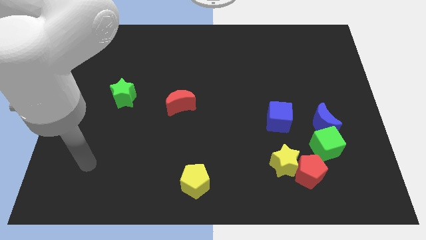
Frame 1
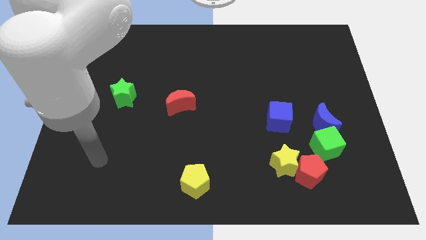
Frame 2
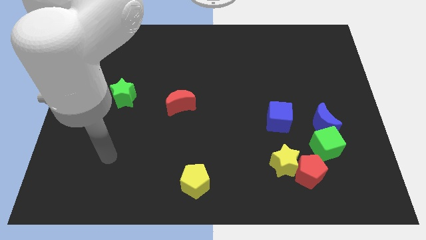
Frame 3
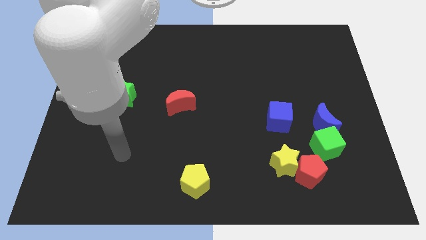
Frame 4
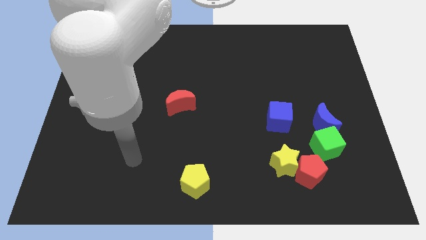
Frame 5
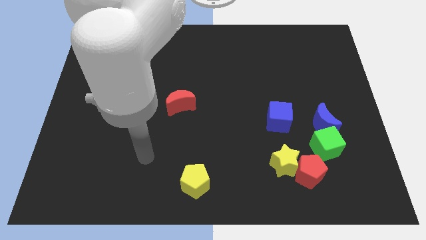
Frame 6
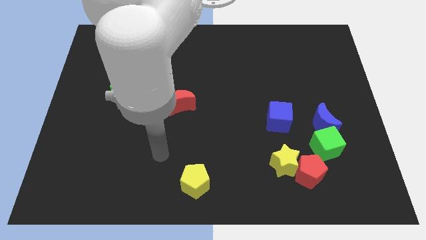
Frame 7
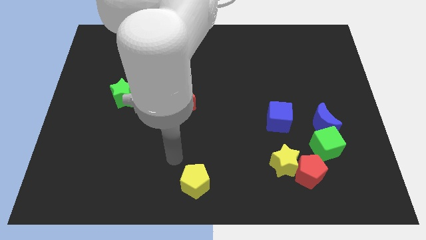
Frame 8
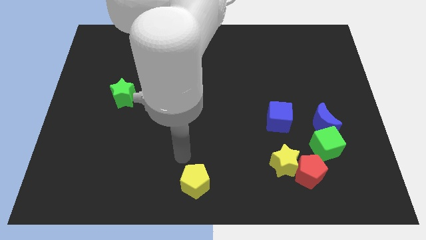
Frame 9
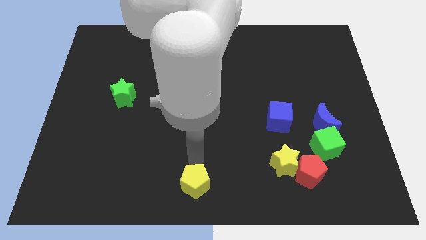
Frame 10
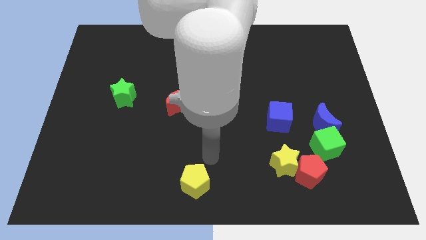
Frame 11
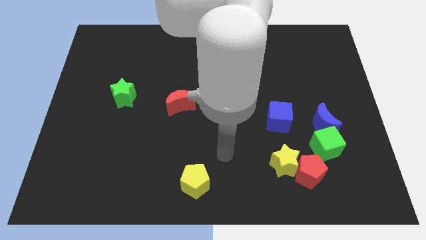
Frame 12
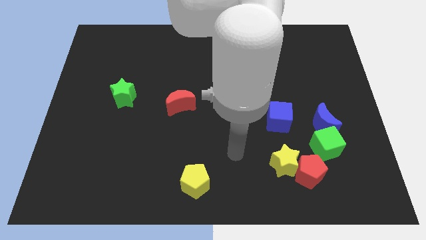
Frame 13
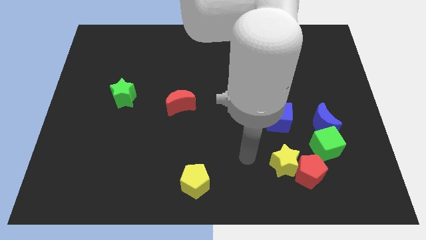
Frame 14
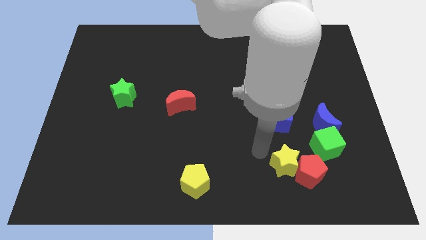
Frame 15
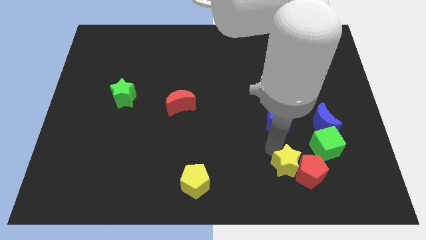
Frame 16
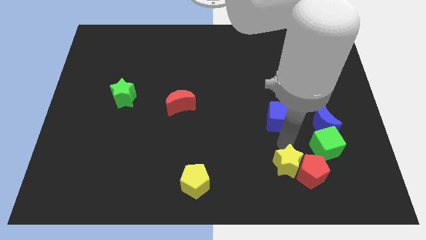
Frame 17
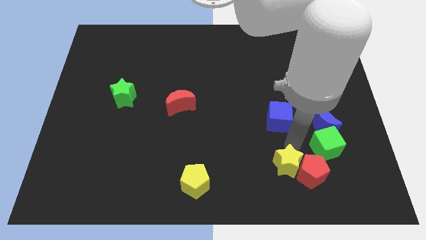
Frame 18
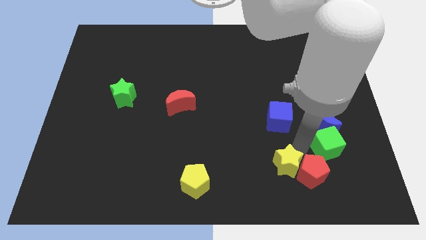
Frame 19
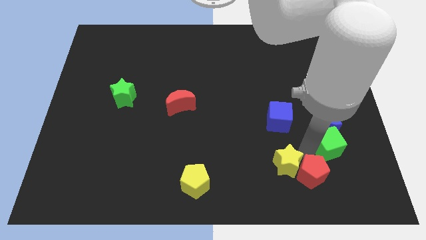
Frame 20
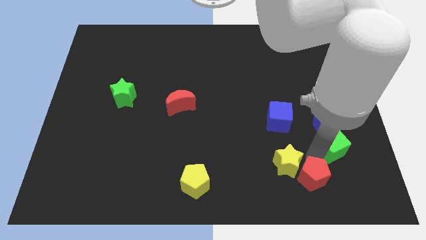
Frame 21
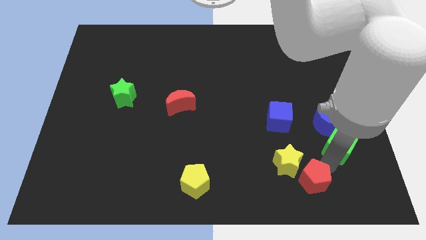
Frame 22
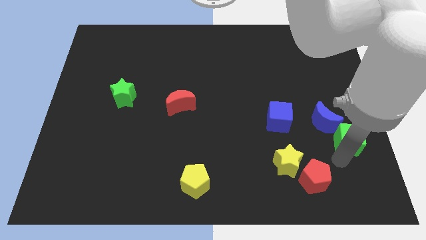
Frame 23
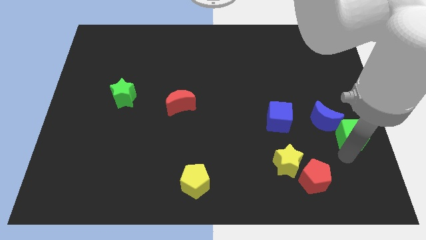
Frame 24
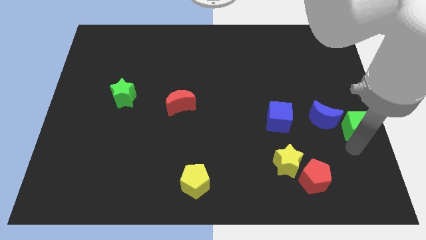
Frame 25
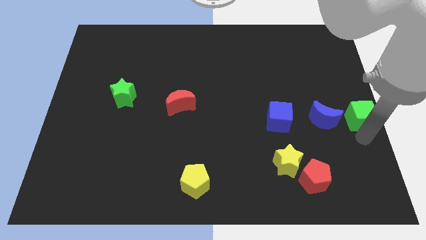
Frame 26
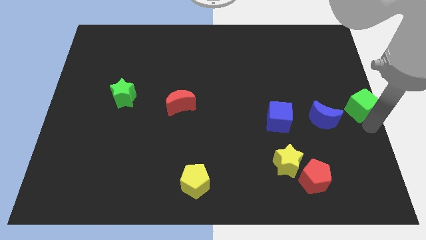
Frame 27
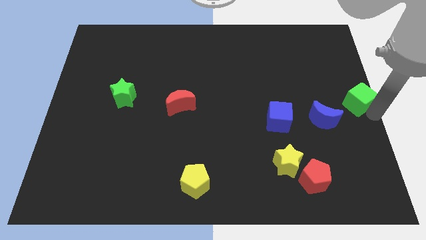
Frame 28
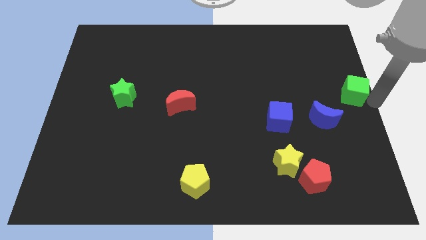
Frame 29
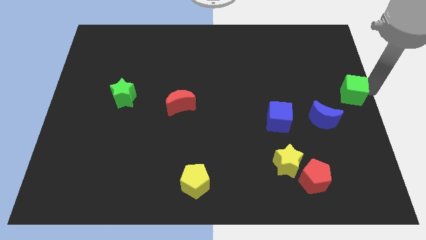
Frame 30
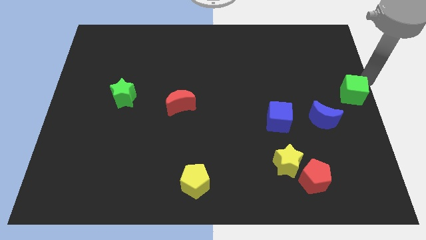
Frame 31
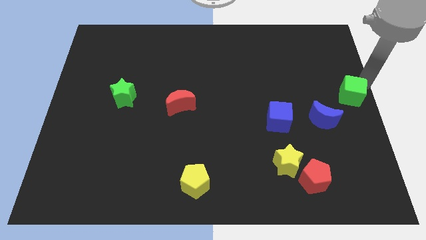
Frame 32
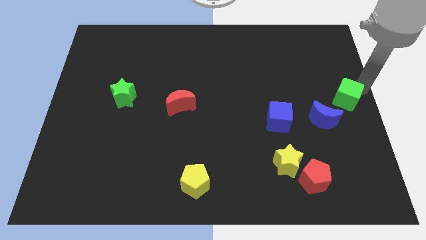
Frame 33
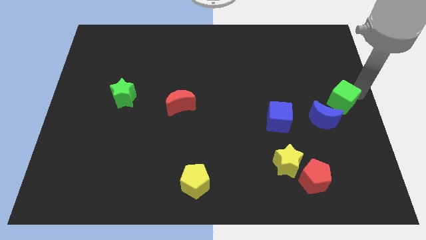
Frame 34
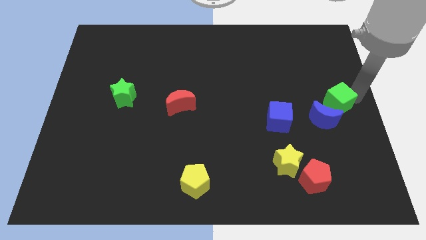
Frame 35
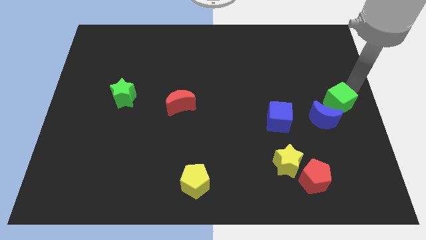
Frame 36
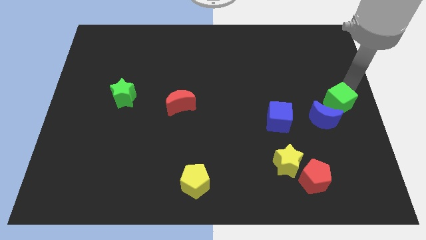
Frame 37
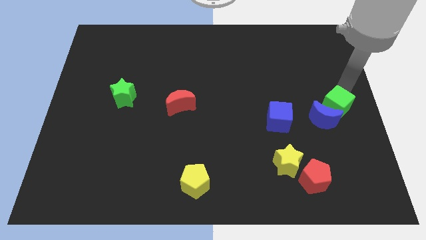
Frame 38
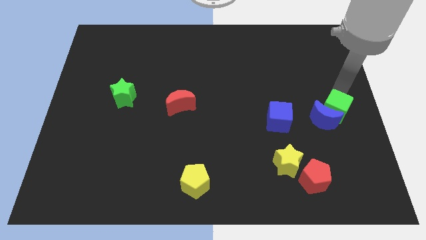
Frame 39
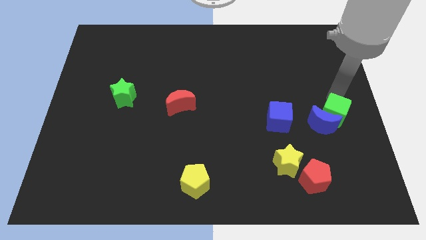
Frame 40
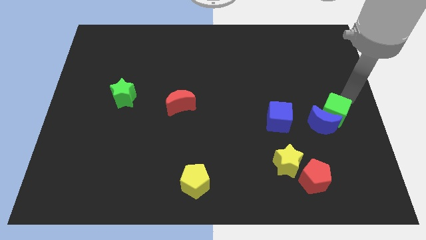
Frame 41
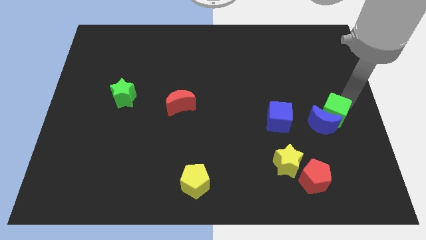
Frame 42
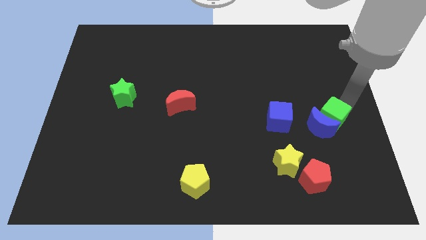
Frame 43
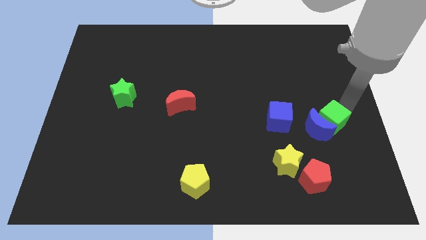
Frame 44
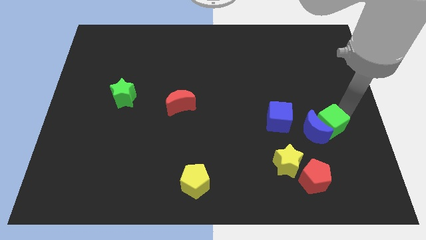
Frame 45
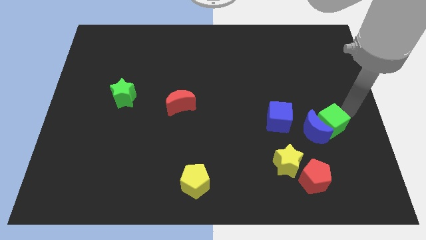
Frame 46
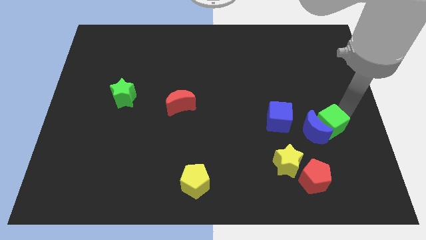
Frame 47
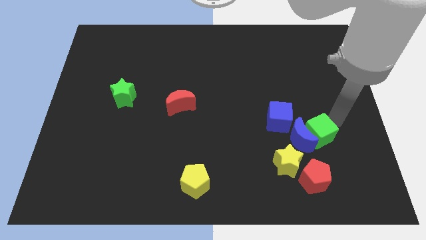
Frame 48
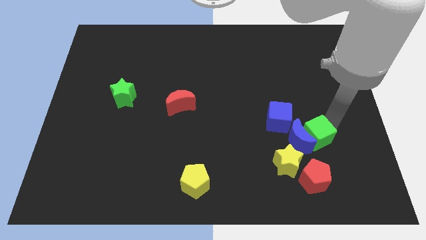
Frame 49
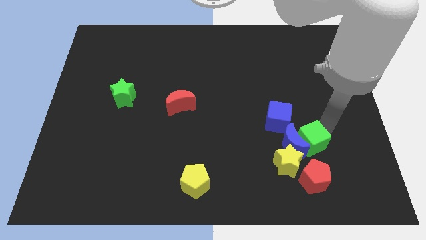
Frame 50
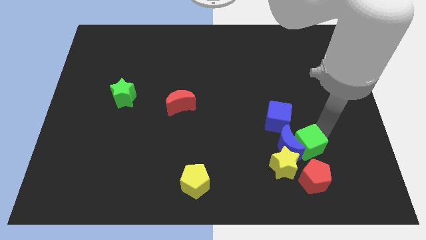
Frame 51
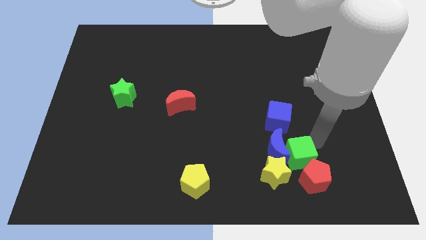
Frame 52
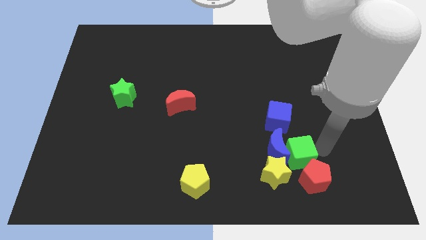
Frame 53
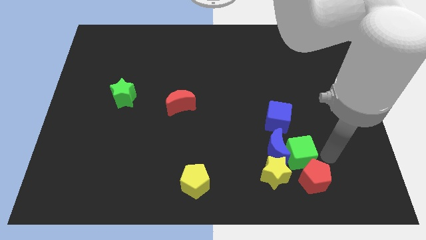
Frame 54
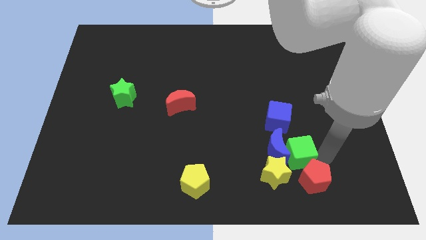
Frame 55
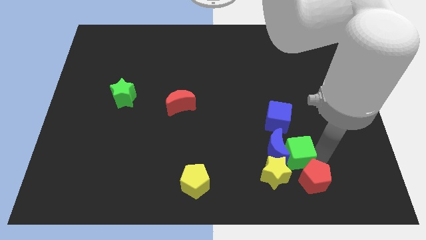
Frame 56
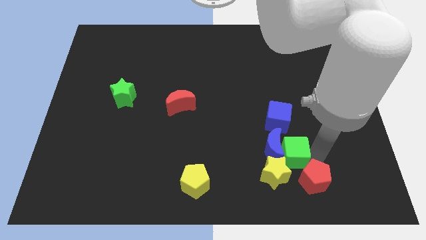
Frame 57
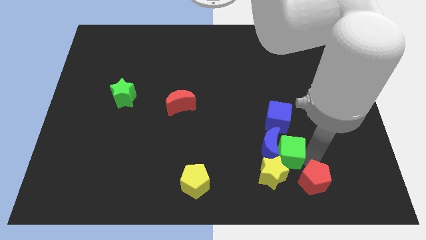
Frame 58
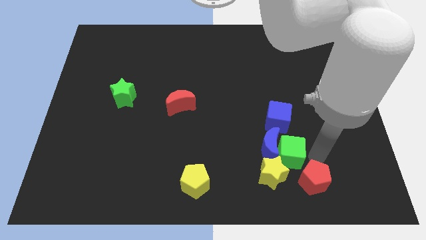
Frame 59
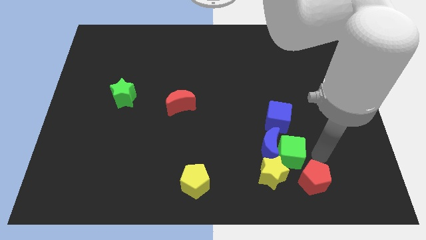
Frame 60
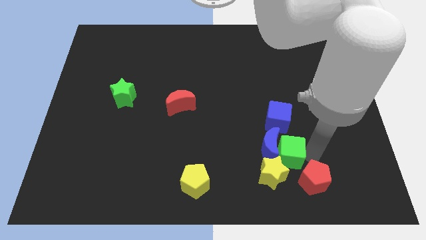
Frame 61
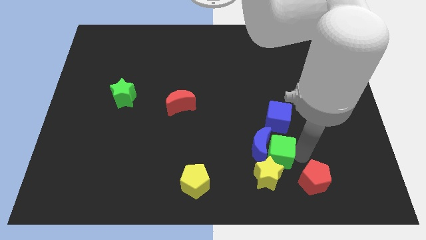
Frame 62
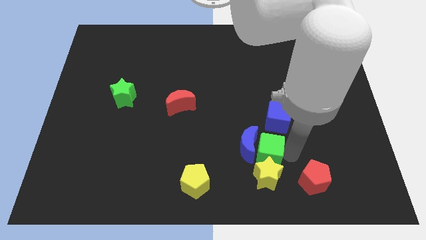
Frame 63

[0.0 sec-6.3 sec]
move the green cube diagonally up and to the left of the yellow star

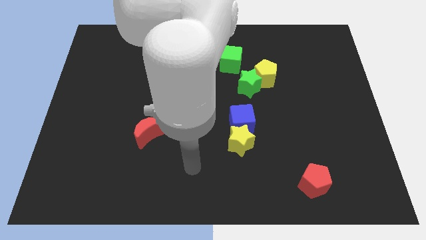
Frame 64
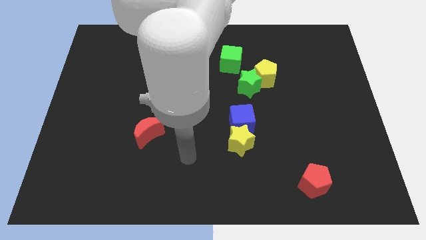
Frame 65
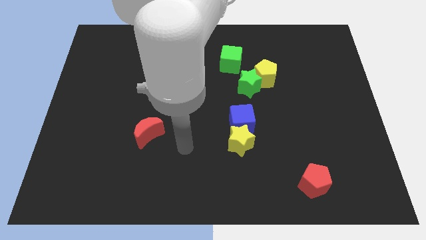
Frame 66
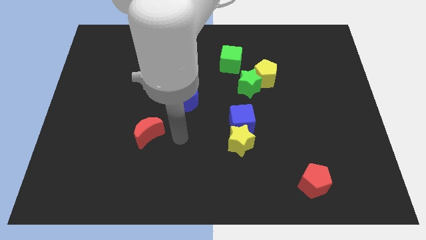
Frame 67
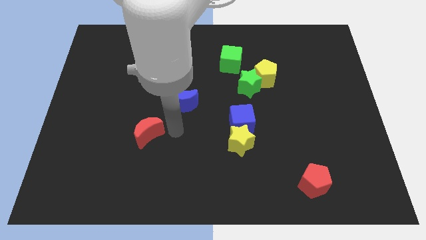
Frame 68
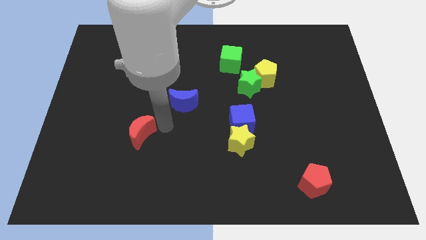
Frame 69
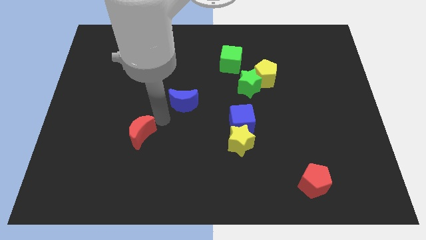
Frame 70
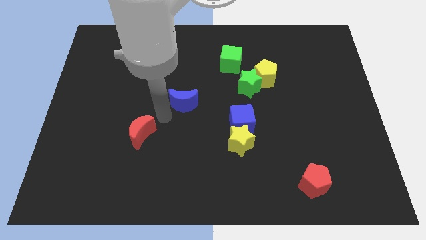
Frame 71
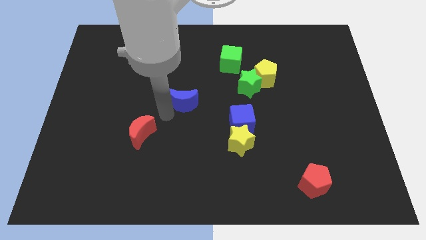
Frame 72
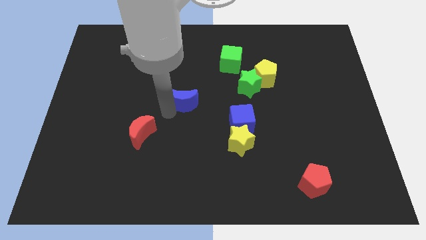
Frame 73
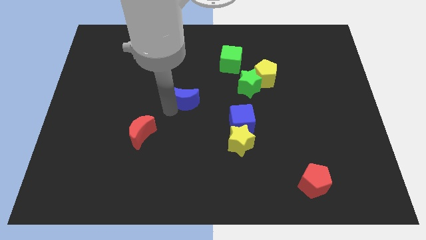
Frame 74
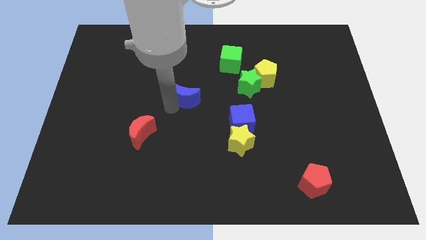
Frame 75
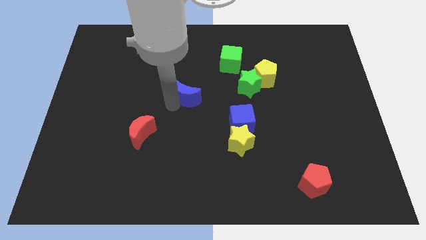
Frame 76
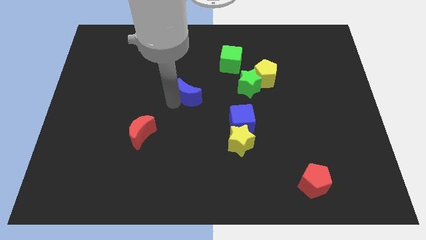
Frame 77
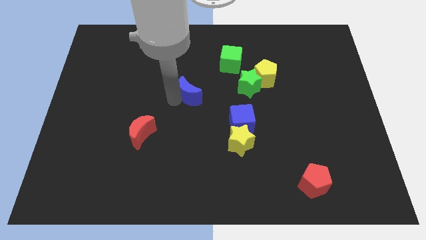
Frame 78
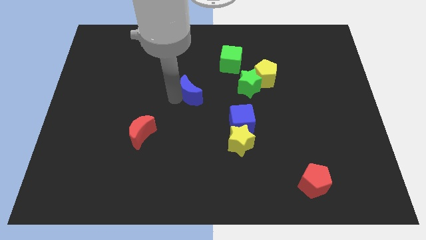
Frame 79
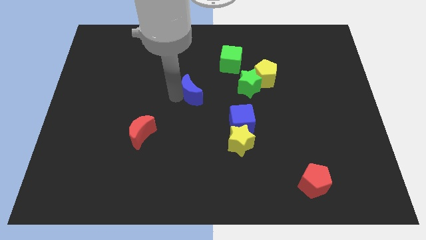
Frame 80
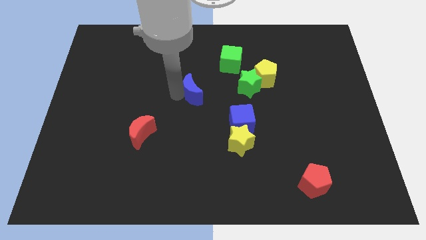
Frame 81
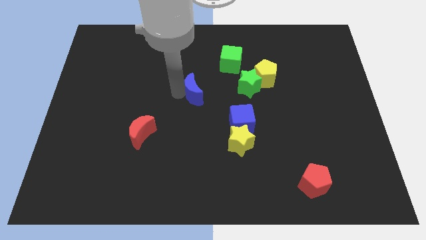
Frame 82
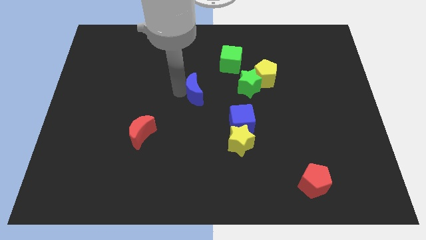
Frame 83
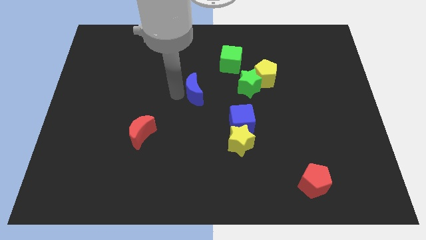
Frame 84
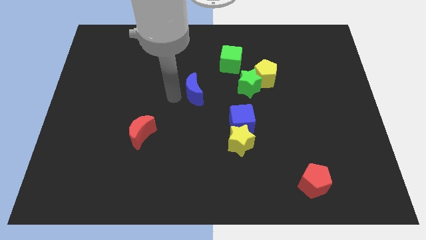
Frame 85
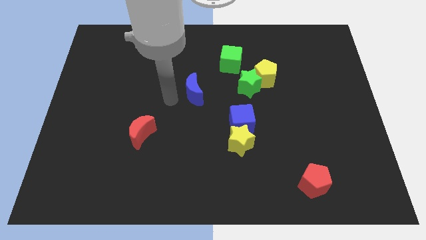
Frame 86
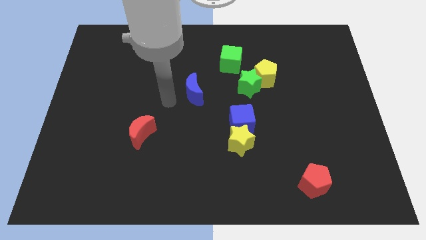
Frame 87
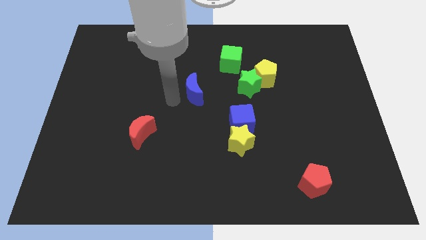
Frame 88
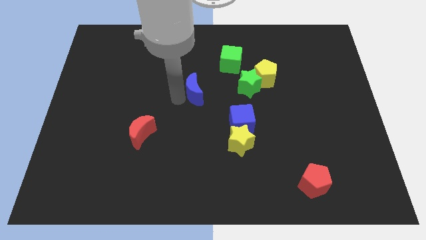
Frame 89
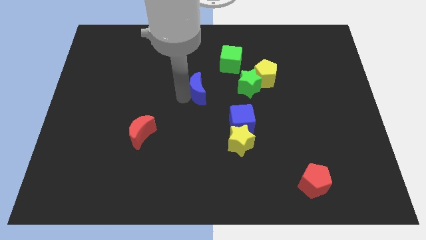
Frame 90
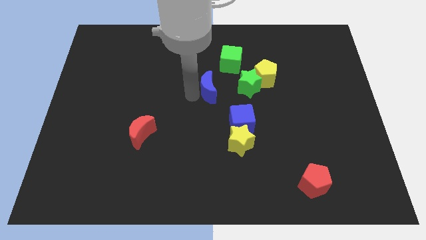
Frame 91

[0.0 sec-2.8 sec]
slide the blue moon to the left of the yellow pentagon
